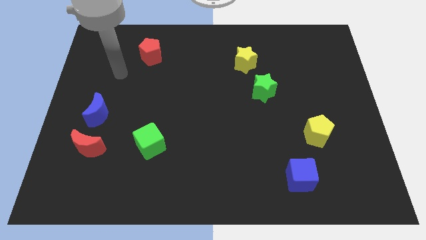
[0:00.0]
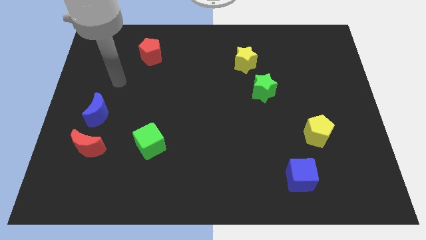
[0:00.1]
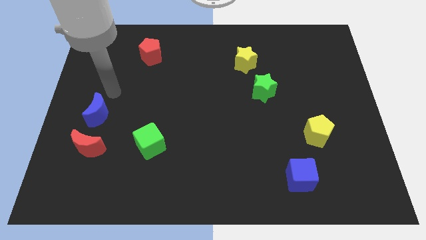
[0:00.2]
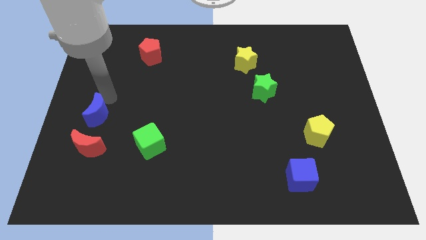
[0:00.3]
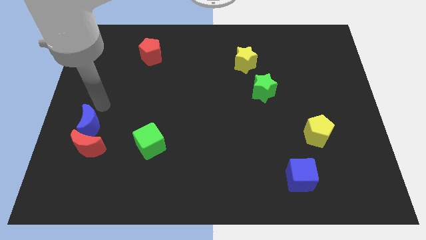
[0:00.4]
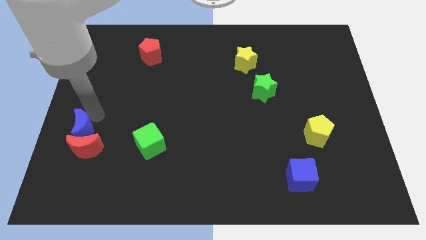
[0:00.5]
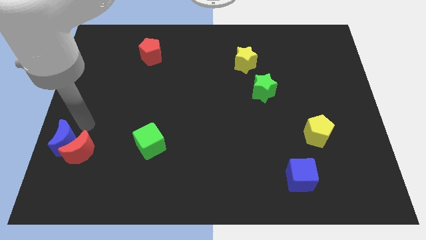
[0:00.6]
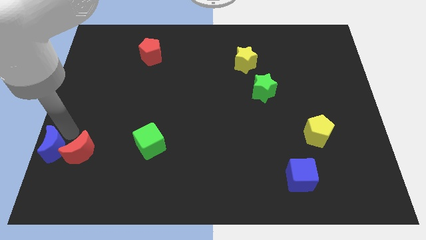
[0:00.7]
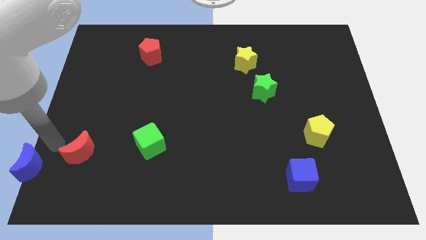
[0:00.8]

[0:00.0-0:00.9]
pull the red moon apart from the blue moon

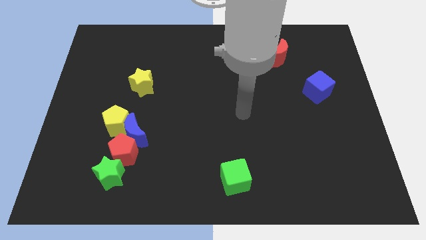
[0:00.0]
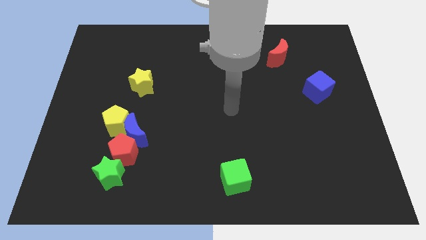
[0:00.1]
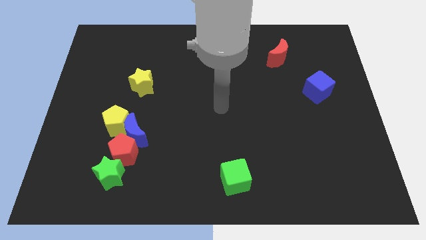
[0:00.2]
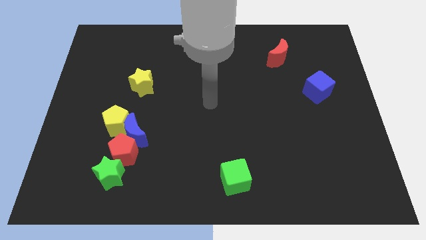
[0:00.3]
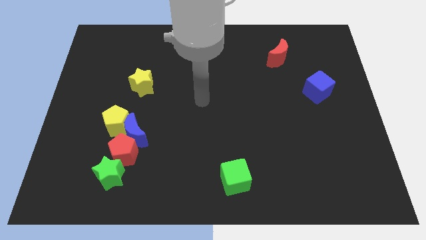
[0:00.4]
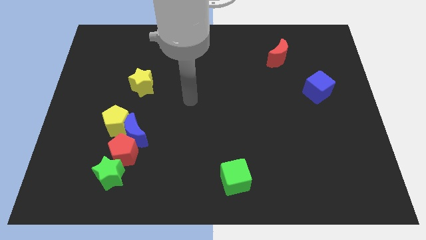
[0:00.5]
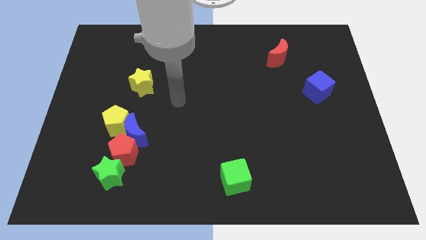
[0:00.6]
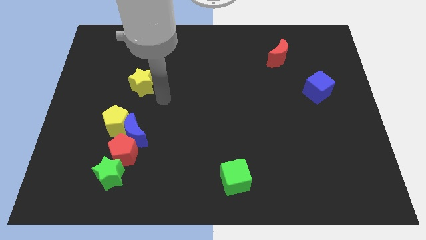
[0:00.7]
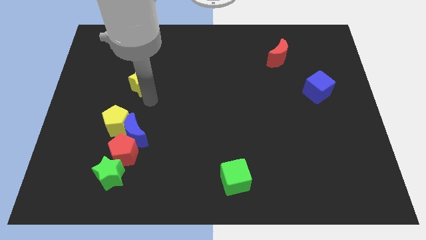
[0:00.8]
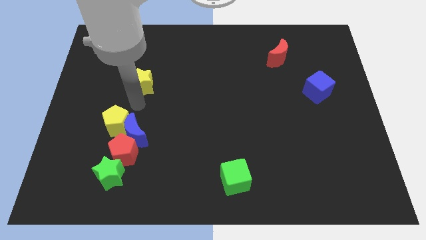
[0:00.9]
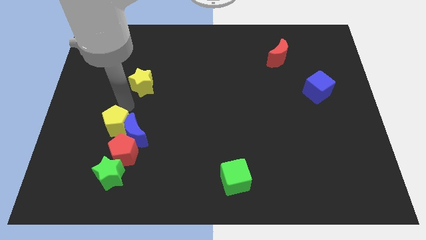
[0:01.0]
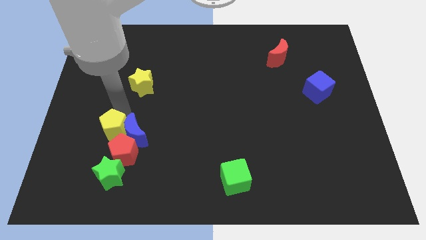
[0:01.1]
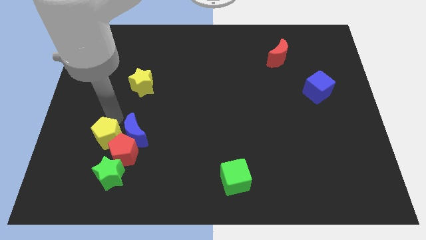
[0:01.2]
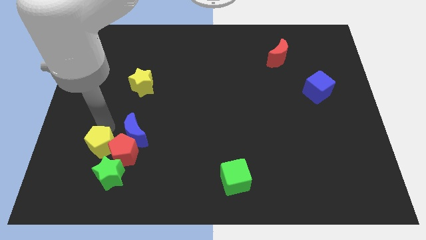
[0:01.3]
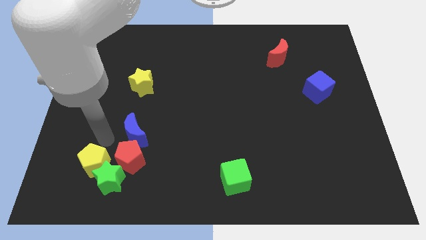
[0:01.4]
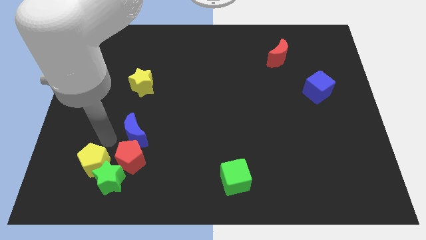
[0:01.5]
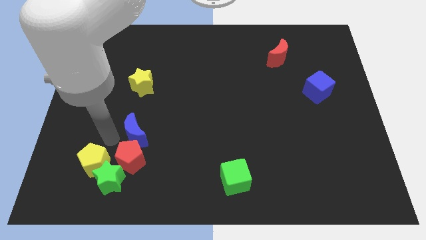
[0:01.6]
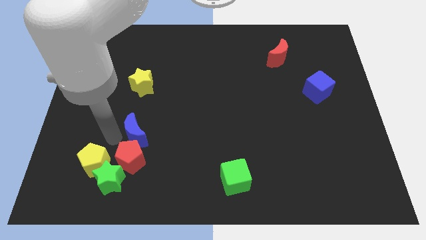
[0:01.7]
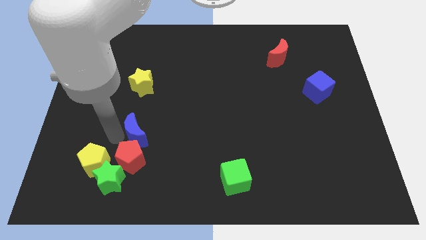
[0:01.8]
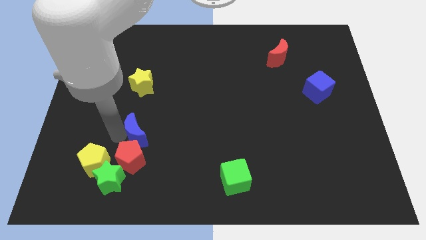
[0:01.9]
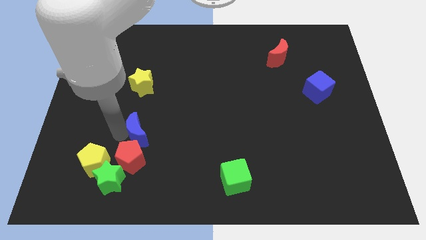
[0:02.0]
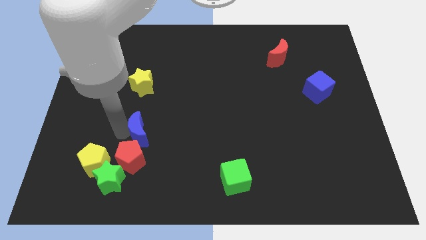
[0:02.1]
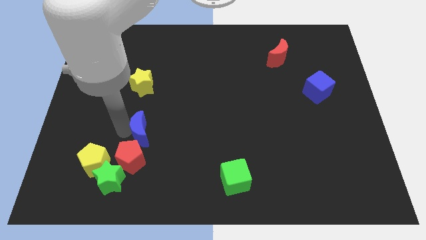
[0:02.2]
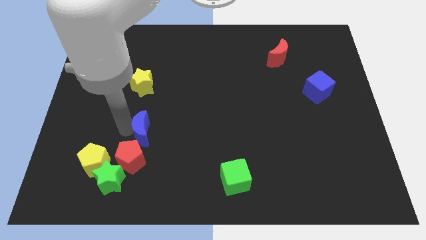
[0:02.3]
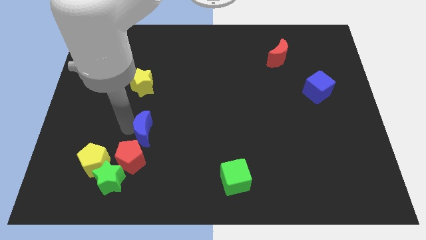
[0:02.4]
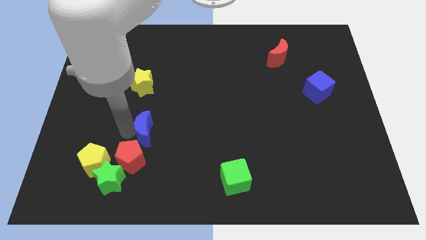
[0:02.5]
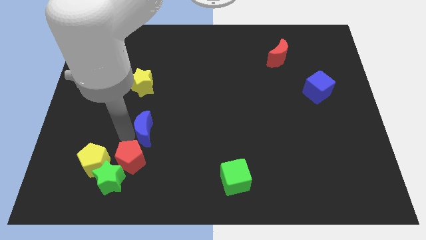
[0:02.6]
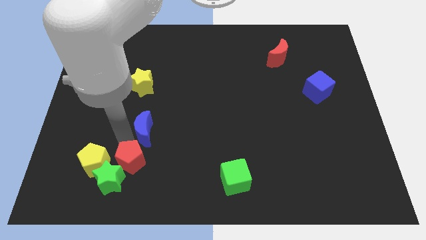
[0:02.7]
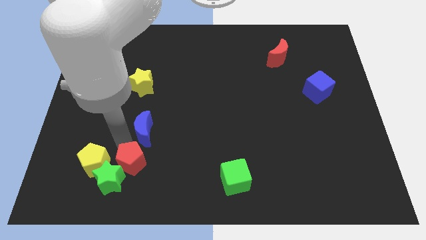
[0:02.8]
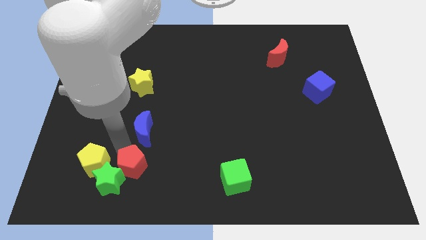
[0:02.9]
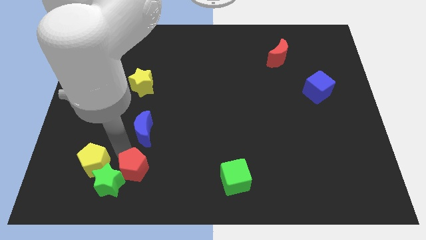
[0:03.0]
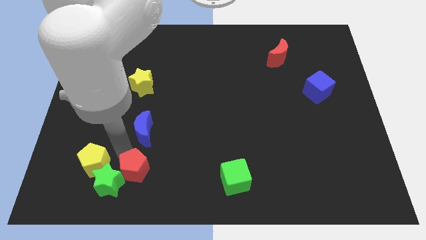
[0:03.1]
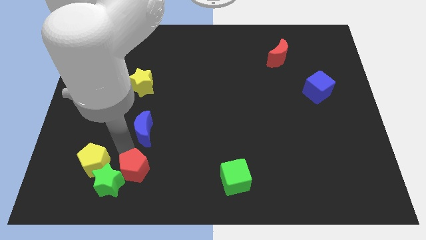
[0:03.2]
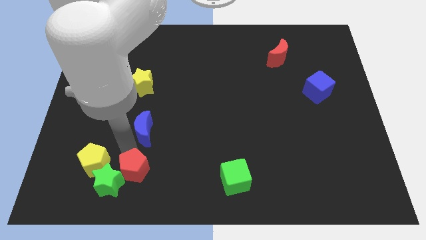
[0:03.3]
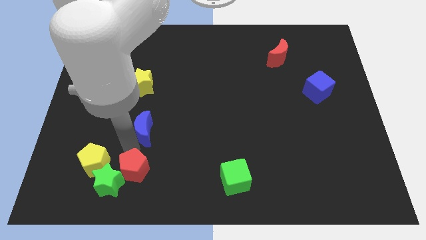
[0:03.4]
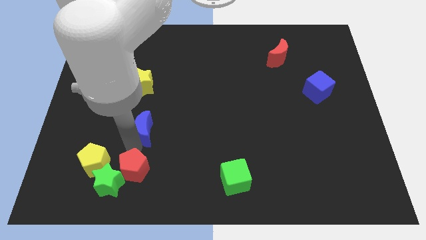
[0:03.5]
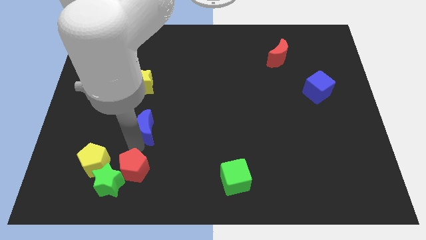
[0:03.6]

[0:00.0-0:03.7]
separate the blue moon from the red pentagon and yellow pentagon

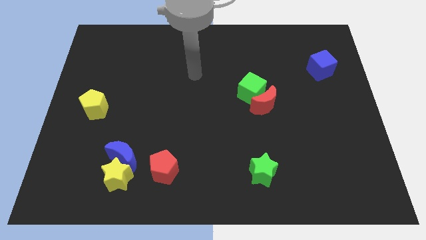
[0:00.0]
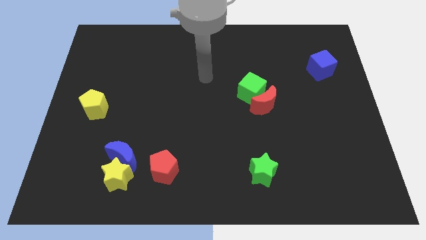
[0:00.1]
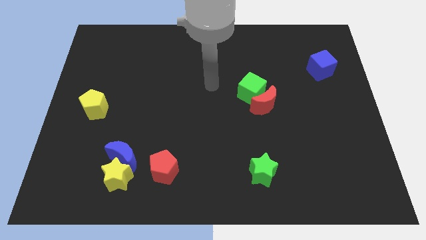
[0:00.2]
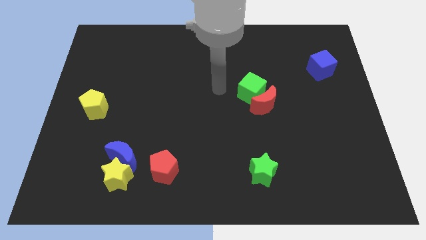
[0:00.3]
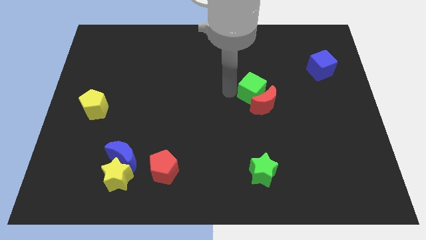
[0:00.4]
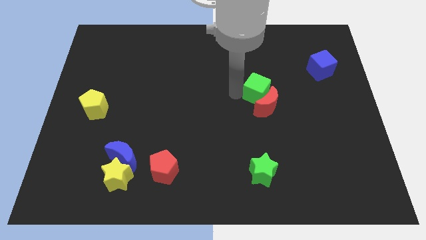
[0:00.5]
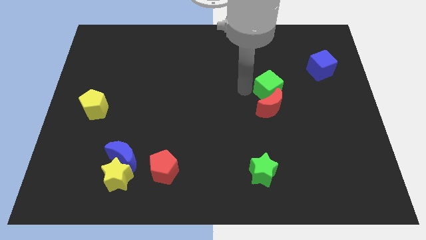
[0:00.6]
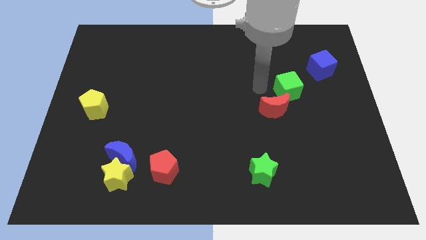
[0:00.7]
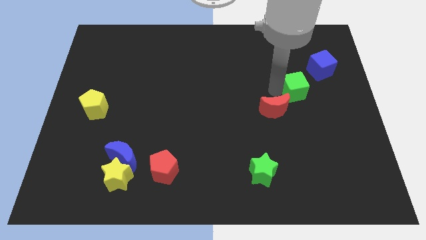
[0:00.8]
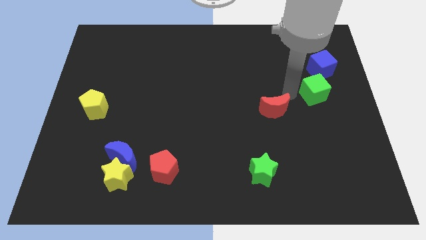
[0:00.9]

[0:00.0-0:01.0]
pull the red moon apart from the green cube

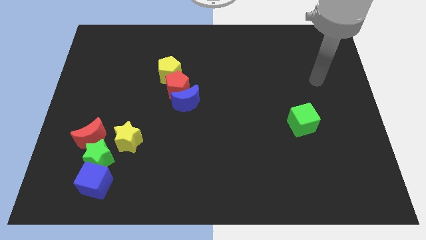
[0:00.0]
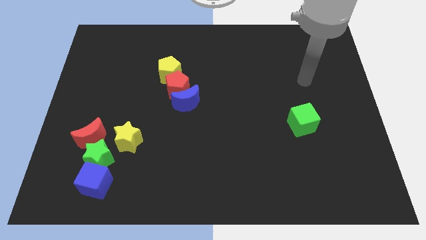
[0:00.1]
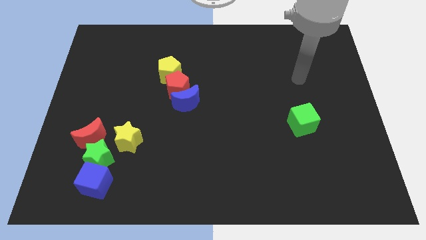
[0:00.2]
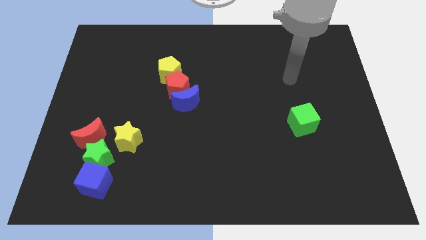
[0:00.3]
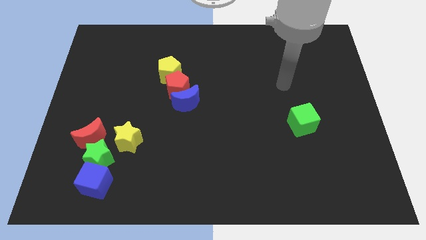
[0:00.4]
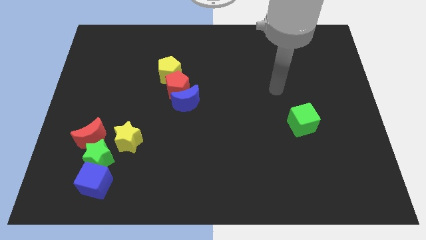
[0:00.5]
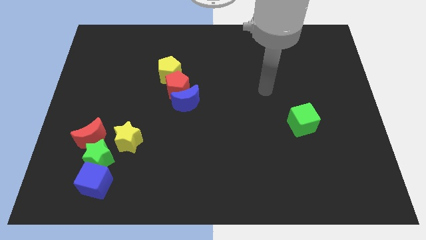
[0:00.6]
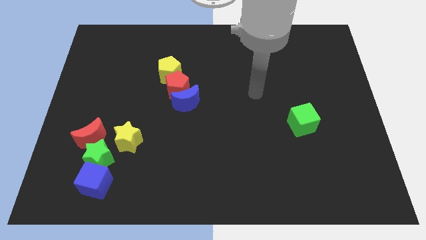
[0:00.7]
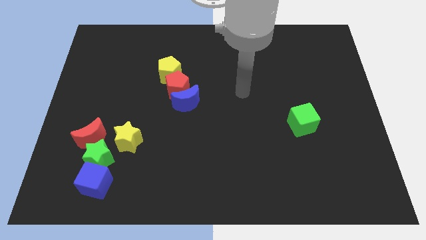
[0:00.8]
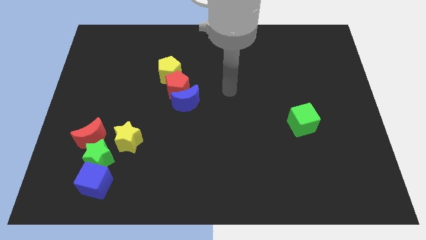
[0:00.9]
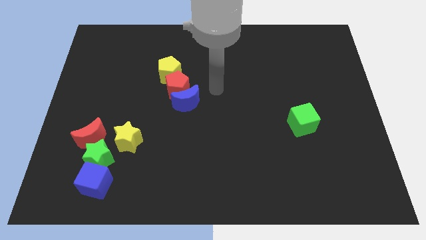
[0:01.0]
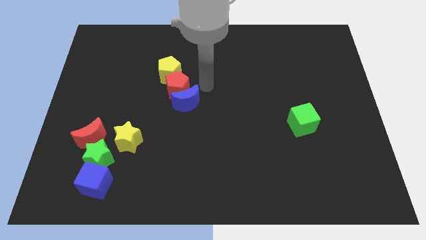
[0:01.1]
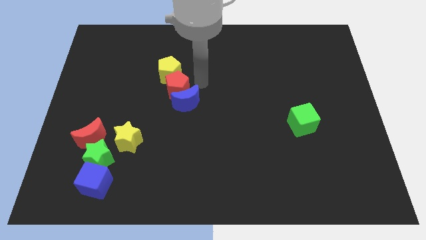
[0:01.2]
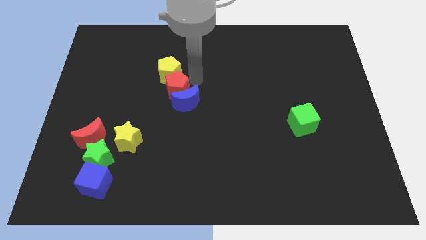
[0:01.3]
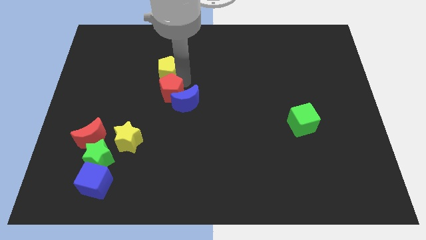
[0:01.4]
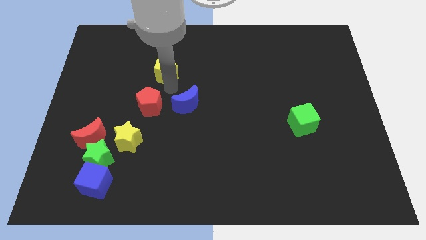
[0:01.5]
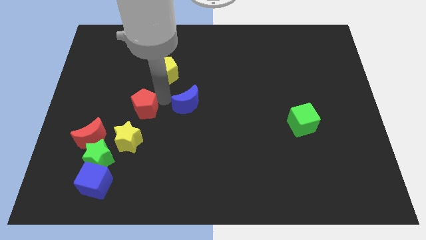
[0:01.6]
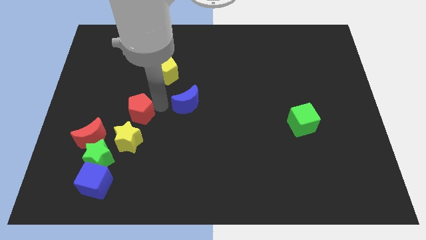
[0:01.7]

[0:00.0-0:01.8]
pull the blue moon apart from the red pentagon

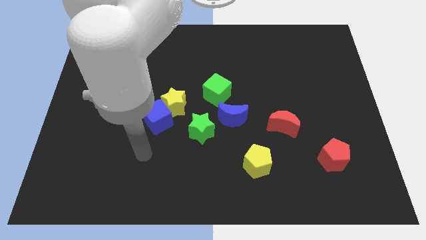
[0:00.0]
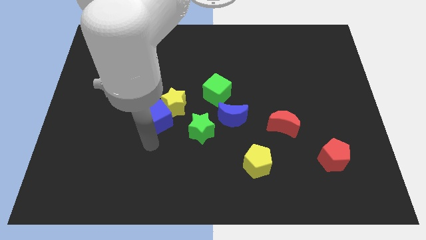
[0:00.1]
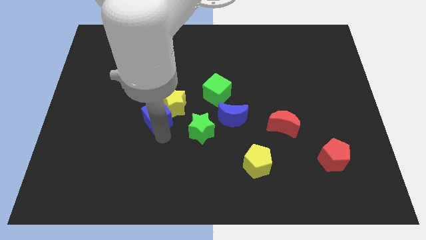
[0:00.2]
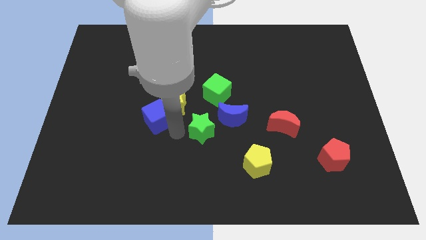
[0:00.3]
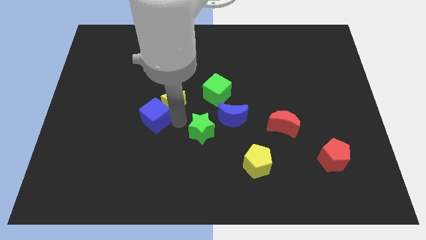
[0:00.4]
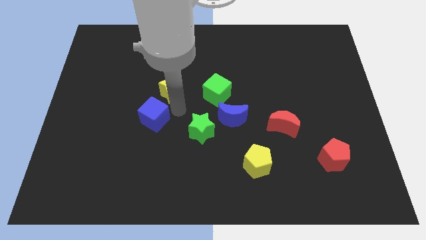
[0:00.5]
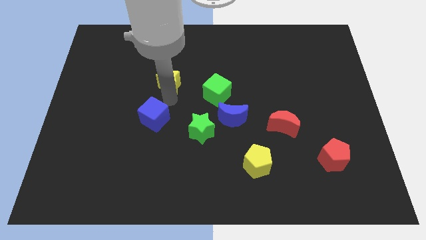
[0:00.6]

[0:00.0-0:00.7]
move the blue cube away from the yellow star

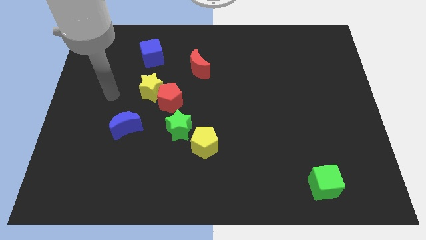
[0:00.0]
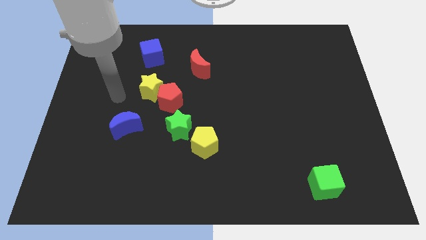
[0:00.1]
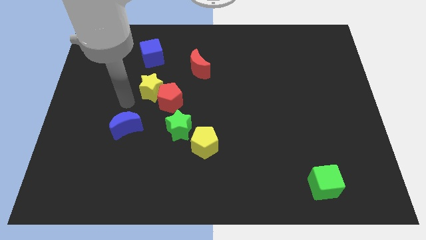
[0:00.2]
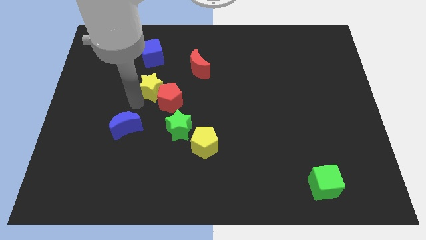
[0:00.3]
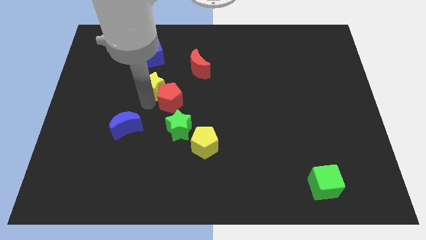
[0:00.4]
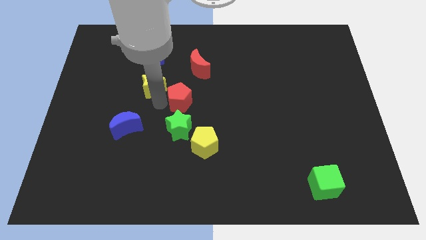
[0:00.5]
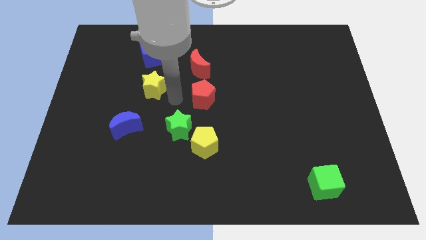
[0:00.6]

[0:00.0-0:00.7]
pull the yellow star apart from the red pentagon

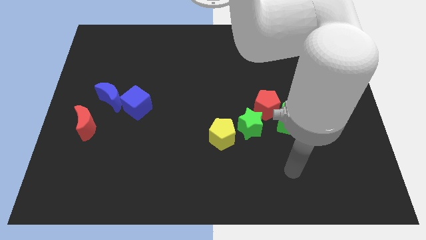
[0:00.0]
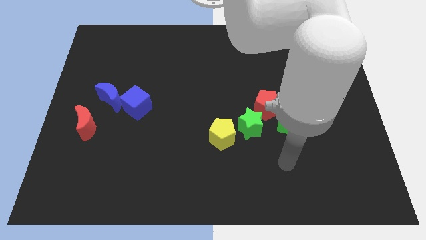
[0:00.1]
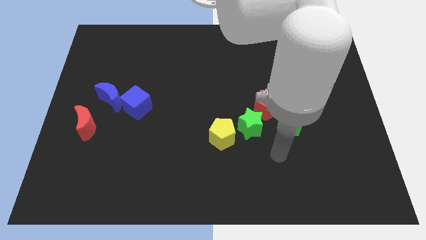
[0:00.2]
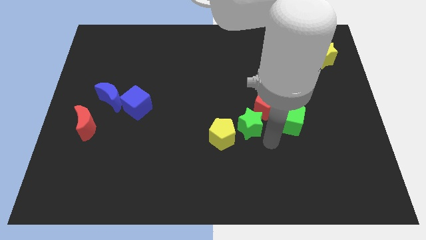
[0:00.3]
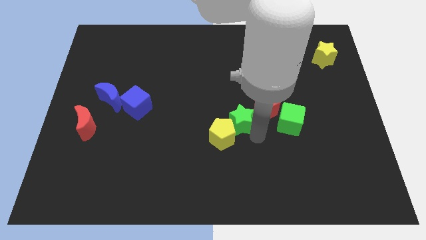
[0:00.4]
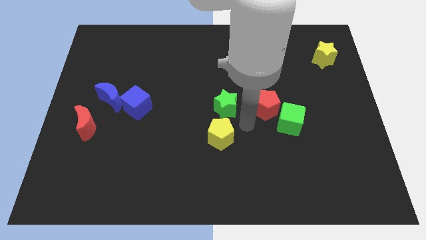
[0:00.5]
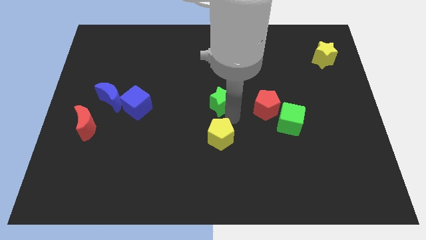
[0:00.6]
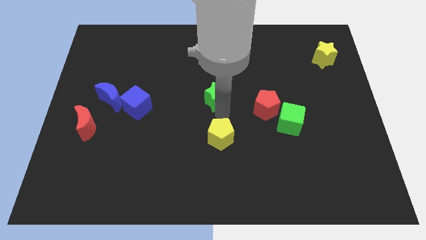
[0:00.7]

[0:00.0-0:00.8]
move the yellow pentagon away from the green star
